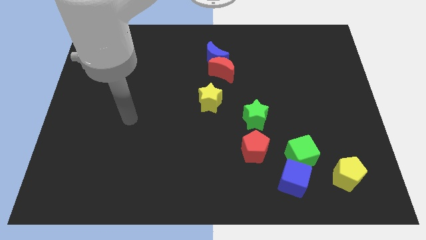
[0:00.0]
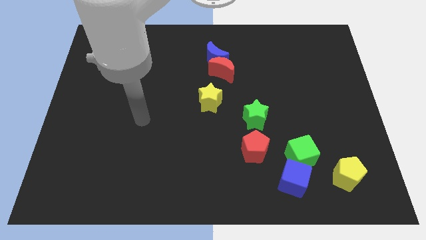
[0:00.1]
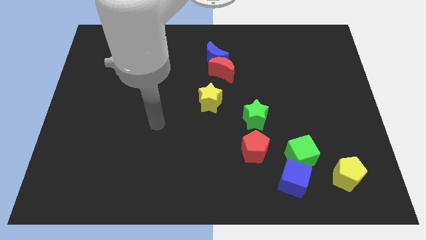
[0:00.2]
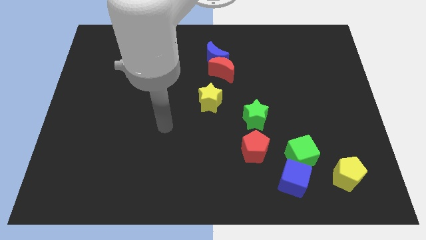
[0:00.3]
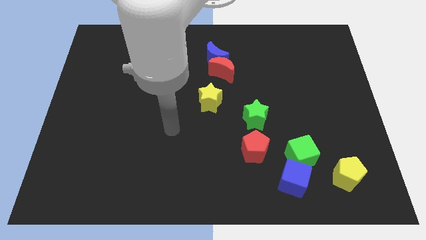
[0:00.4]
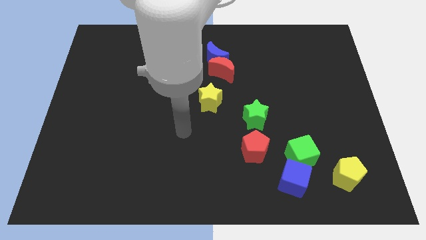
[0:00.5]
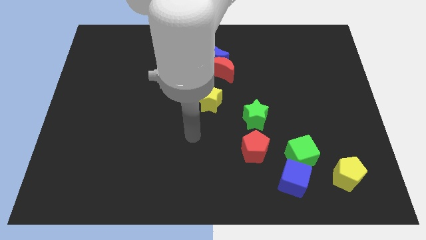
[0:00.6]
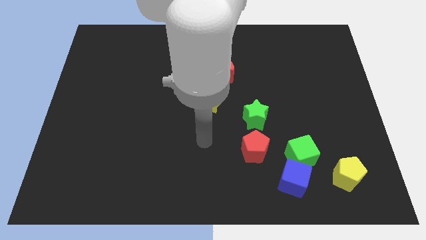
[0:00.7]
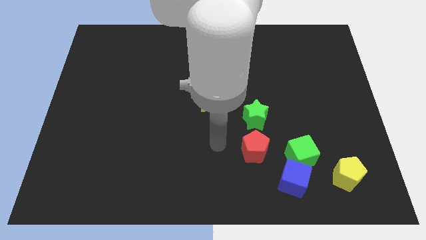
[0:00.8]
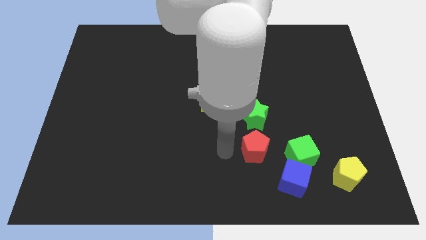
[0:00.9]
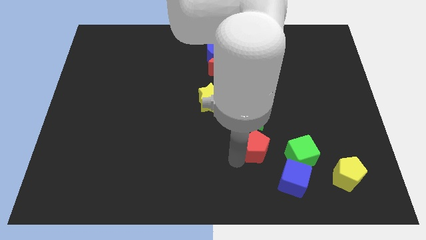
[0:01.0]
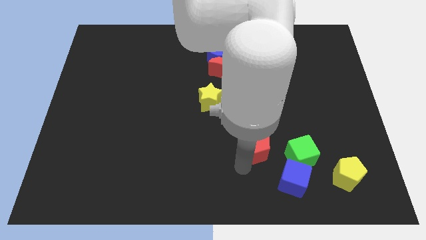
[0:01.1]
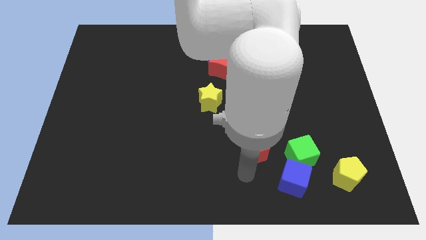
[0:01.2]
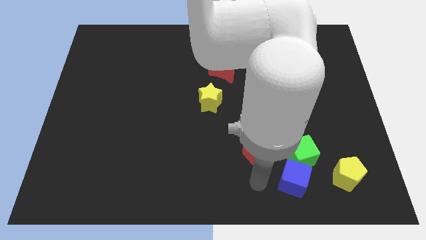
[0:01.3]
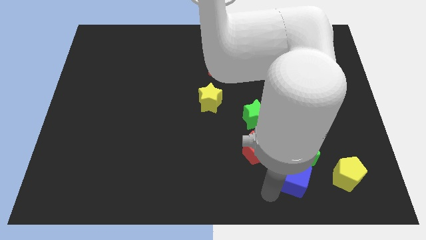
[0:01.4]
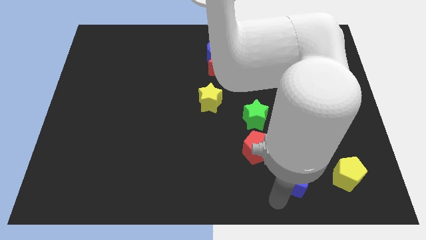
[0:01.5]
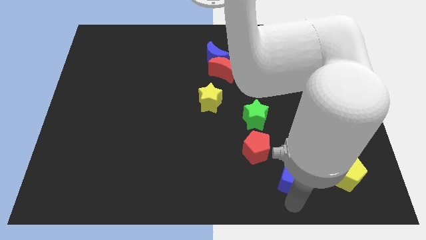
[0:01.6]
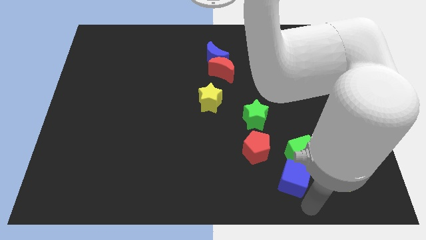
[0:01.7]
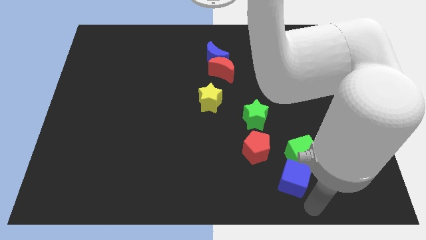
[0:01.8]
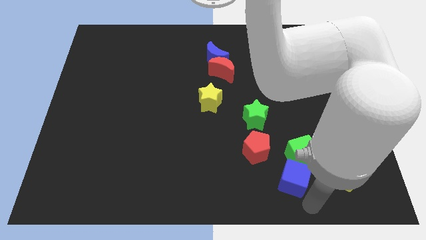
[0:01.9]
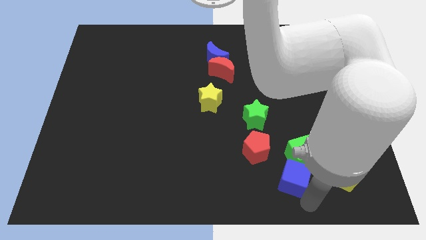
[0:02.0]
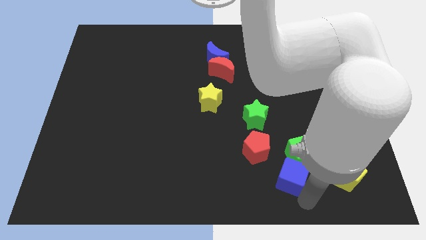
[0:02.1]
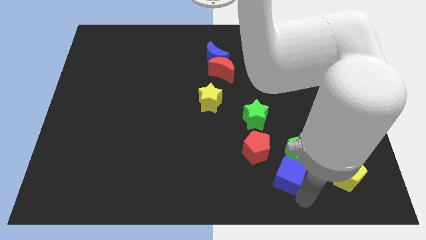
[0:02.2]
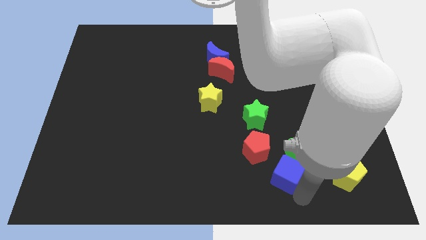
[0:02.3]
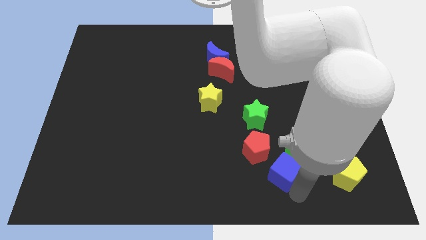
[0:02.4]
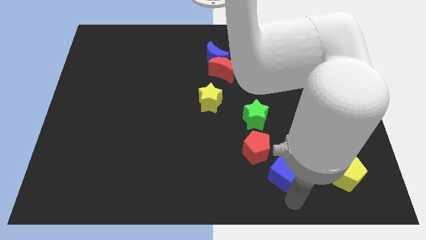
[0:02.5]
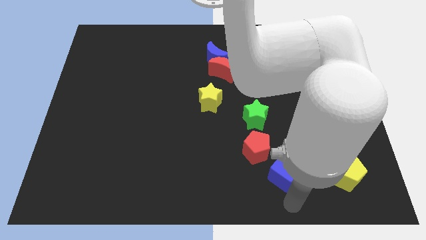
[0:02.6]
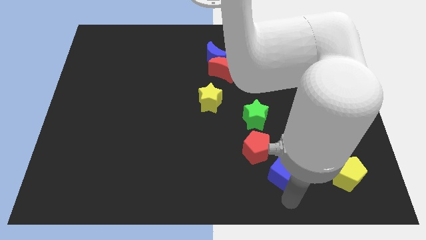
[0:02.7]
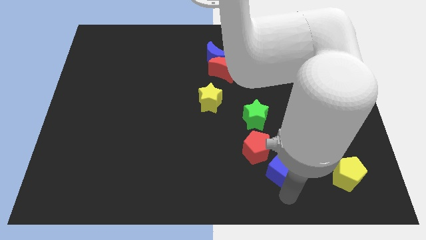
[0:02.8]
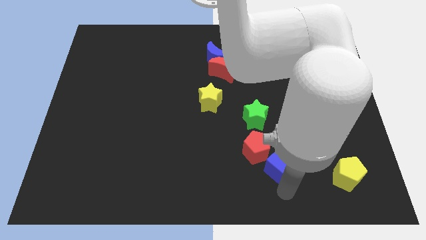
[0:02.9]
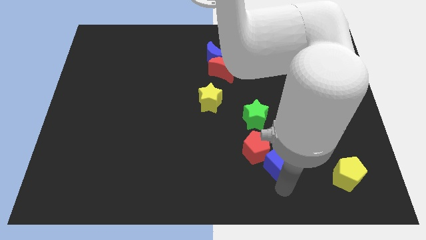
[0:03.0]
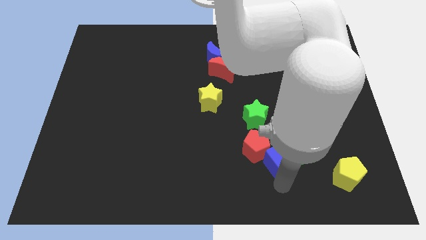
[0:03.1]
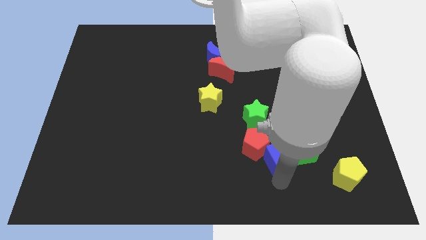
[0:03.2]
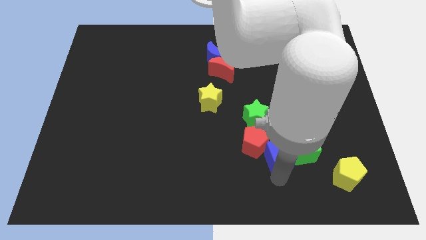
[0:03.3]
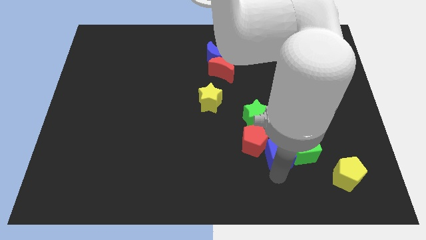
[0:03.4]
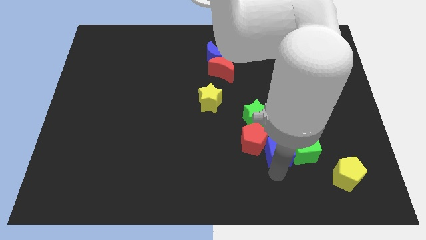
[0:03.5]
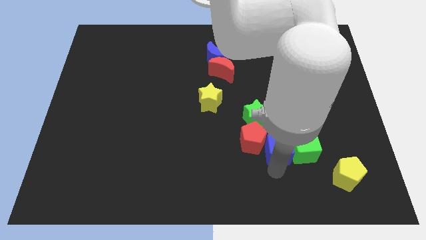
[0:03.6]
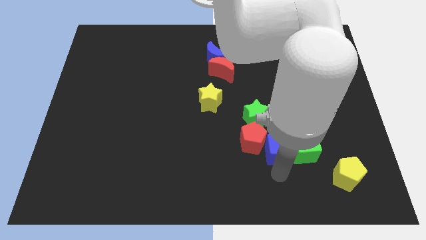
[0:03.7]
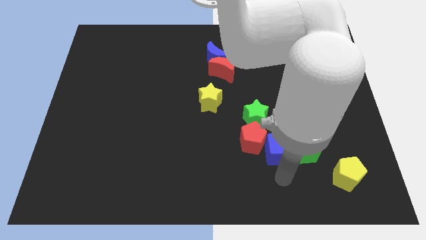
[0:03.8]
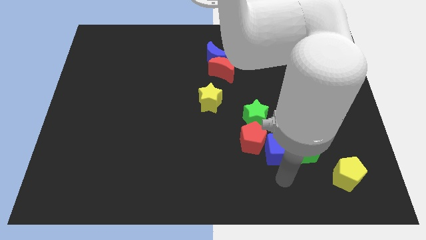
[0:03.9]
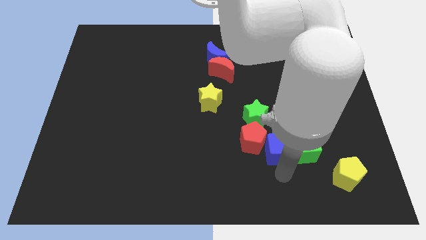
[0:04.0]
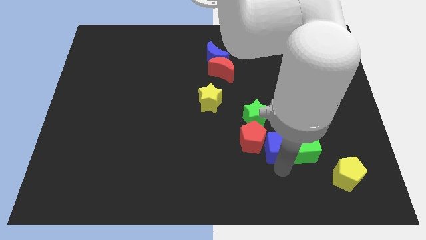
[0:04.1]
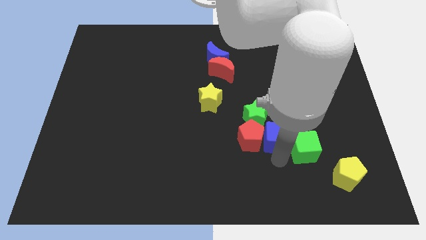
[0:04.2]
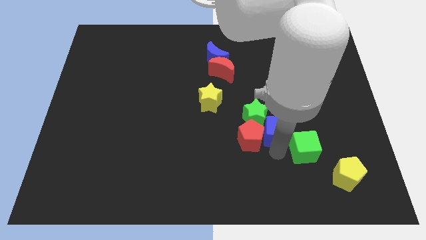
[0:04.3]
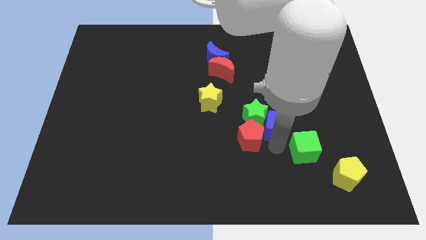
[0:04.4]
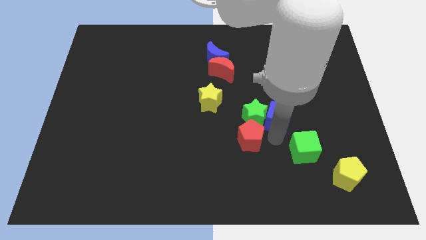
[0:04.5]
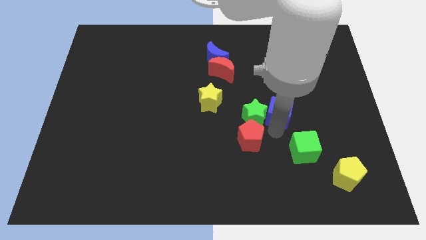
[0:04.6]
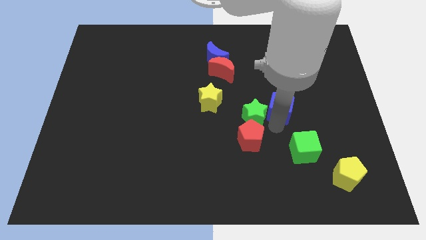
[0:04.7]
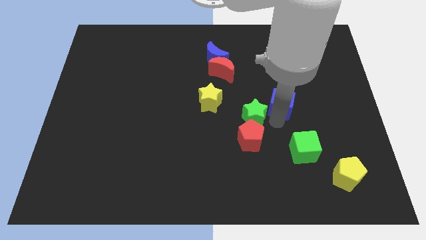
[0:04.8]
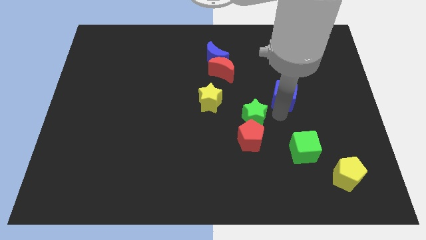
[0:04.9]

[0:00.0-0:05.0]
push the blue cube upwards

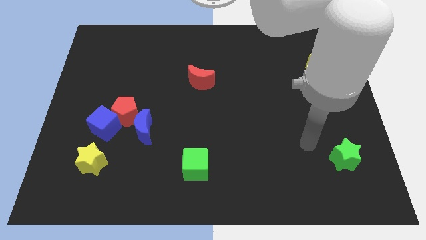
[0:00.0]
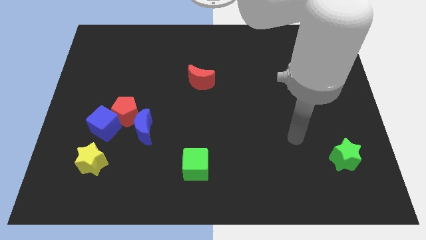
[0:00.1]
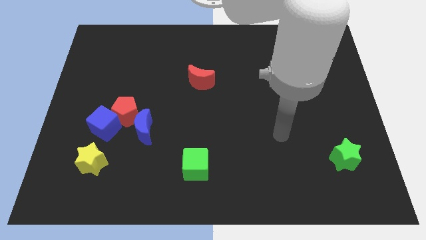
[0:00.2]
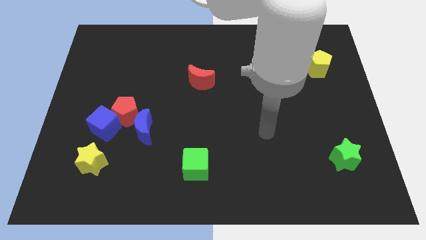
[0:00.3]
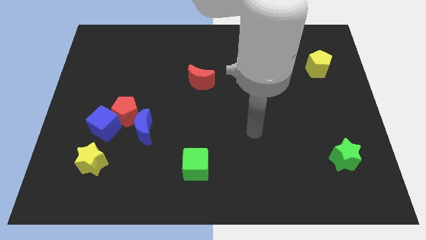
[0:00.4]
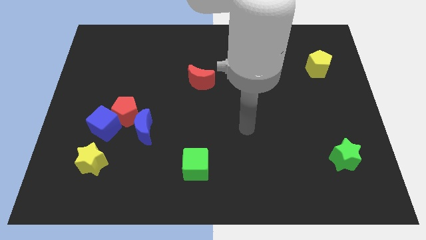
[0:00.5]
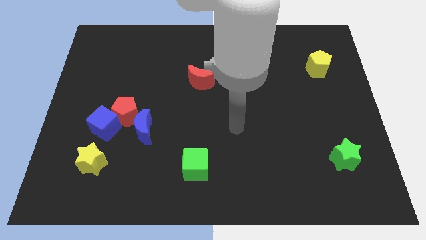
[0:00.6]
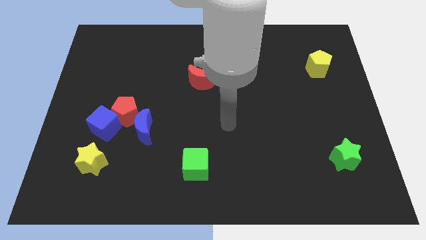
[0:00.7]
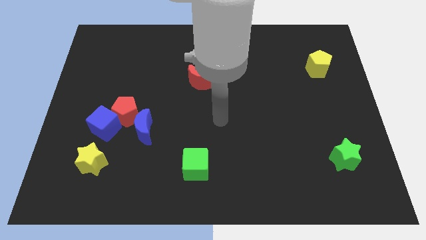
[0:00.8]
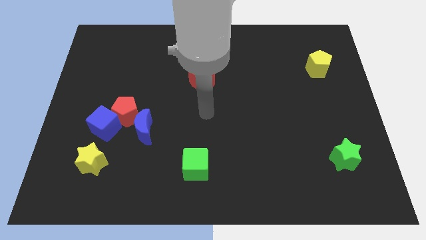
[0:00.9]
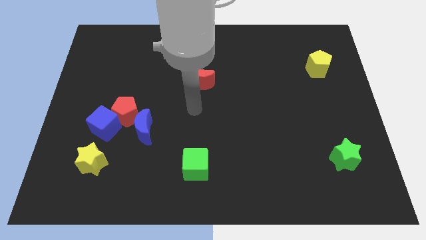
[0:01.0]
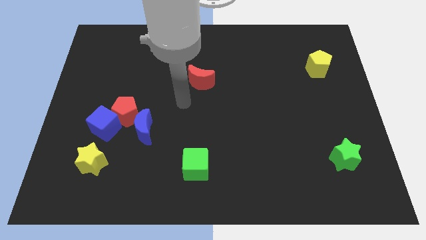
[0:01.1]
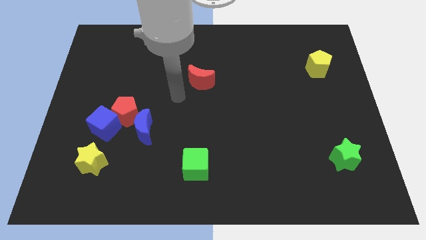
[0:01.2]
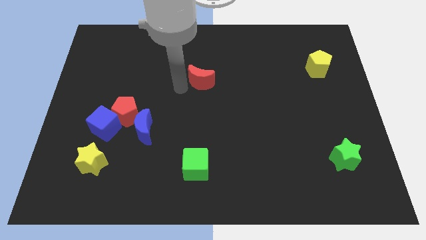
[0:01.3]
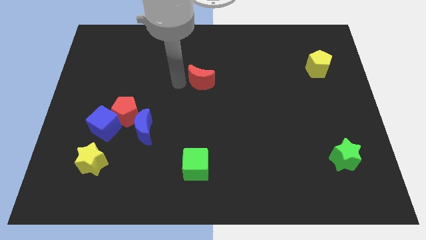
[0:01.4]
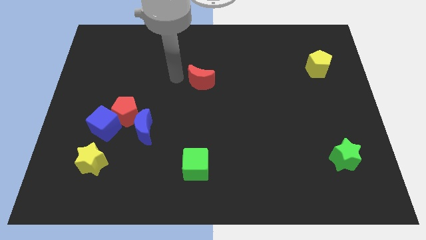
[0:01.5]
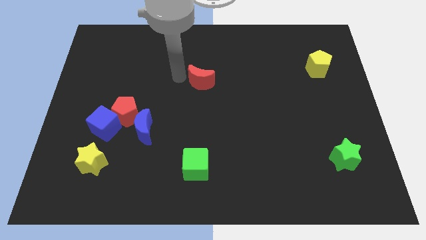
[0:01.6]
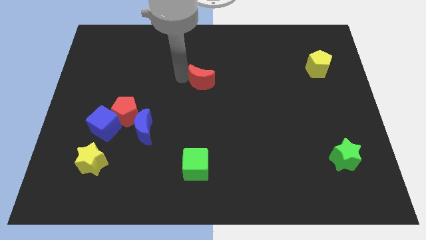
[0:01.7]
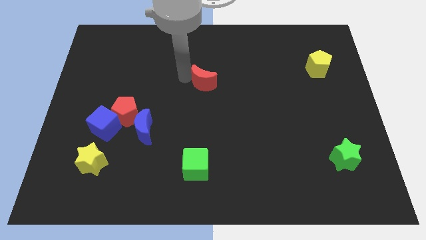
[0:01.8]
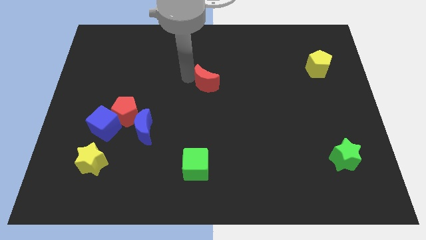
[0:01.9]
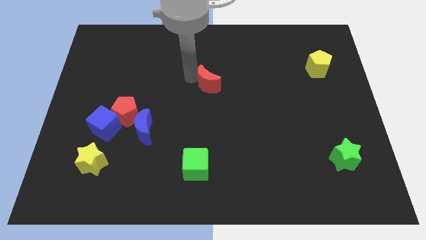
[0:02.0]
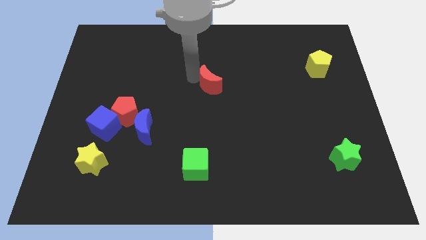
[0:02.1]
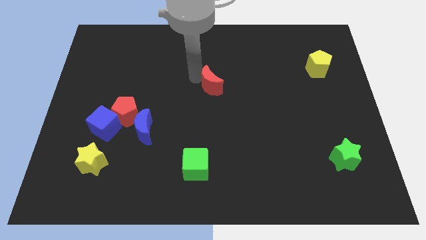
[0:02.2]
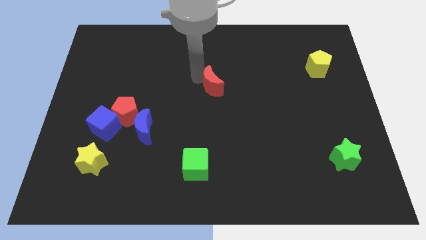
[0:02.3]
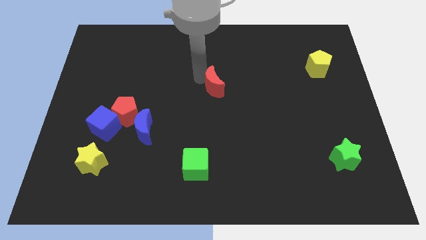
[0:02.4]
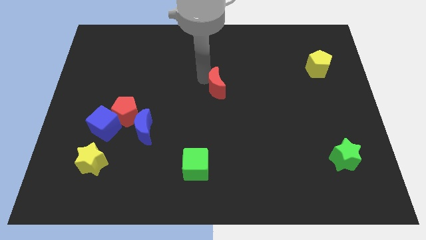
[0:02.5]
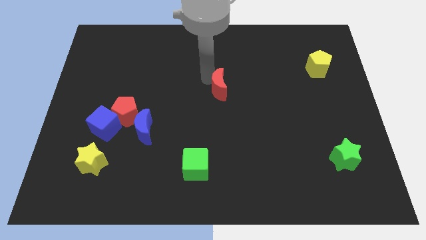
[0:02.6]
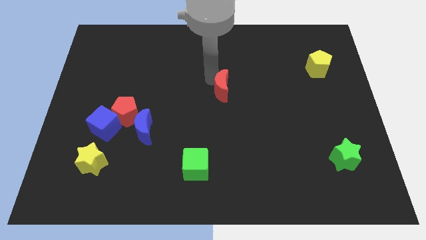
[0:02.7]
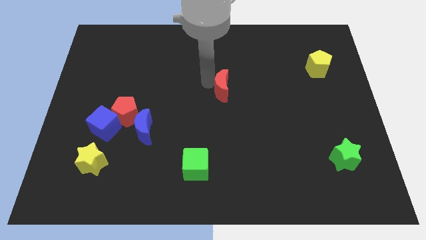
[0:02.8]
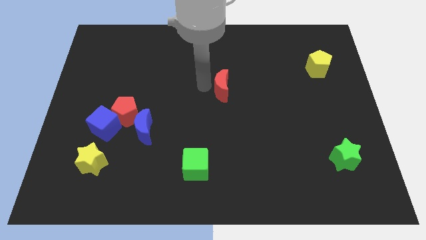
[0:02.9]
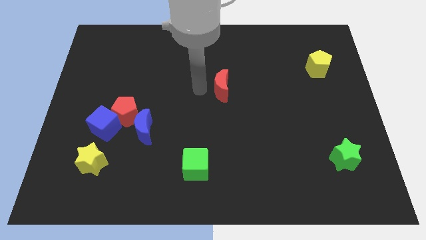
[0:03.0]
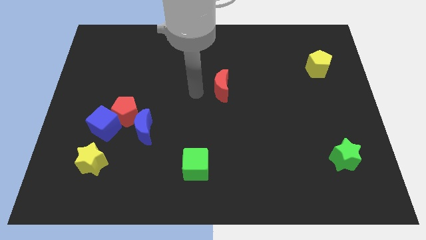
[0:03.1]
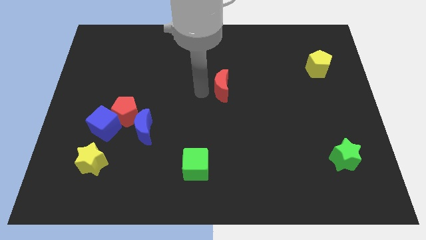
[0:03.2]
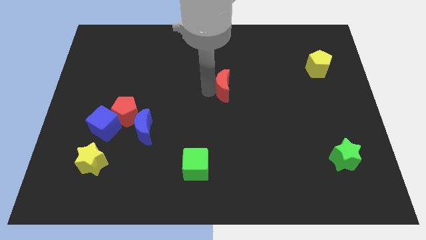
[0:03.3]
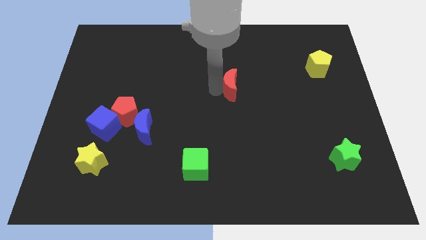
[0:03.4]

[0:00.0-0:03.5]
push the red moon to the right a little
